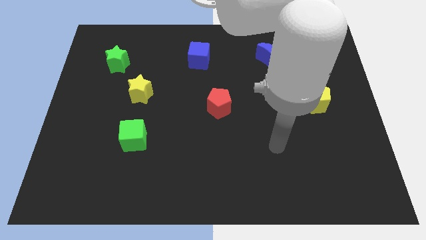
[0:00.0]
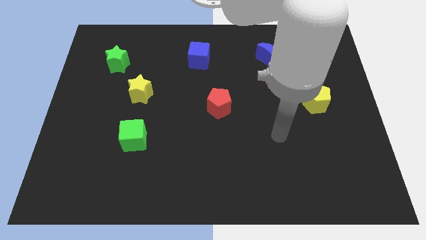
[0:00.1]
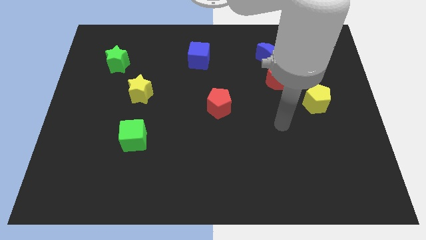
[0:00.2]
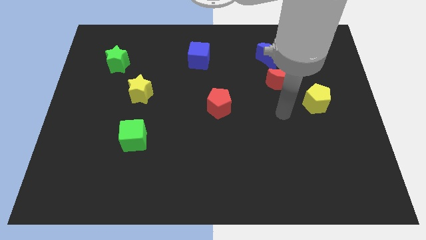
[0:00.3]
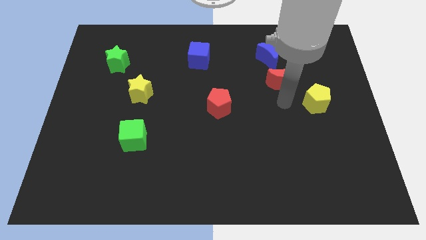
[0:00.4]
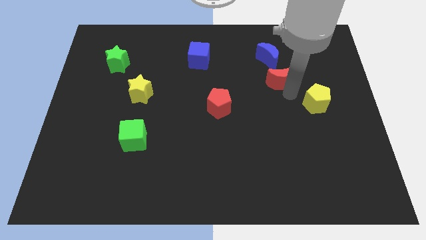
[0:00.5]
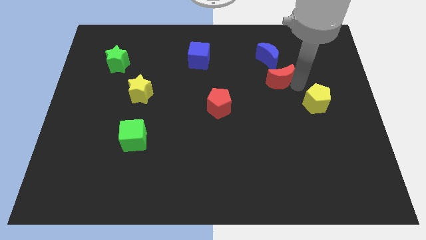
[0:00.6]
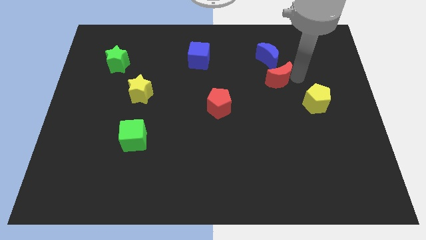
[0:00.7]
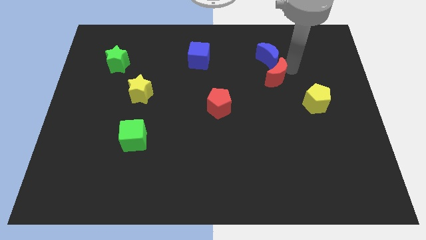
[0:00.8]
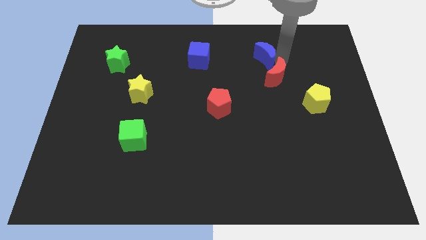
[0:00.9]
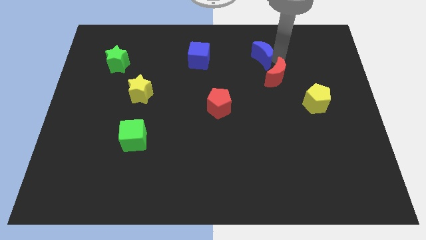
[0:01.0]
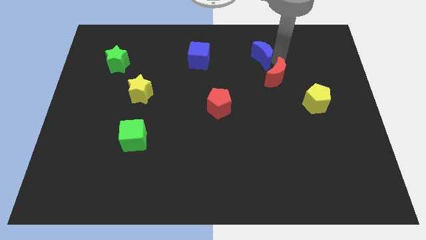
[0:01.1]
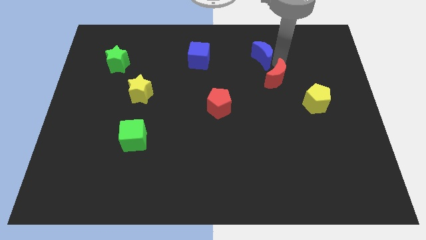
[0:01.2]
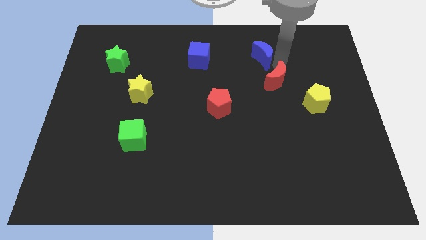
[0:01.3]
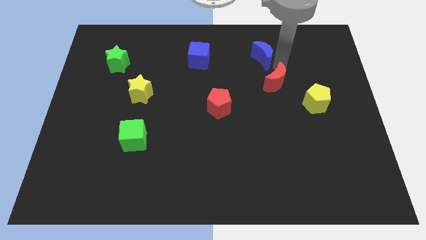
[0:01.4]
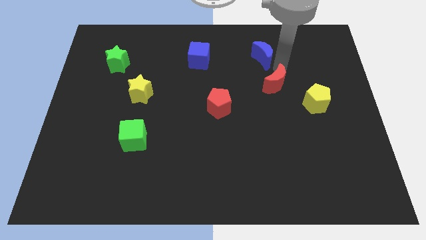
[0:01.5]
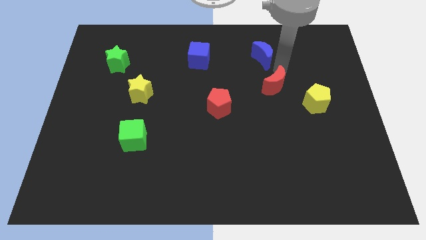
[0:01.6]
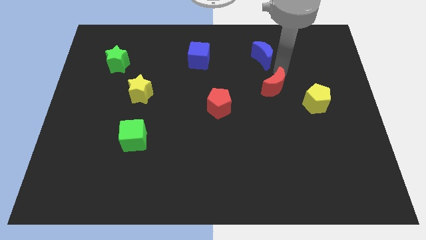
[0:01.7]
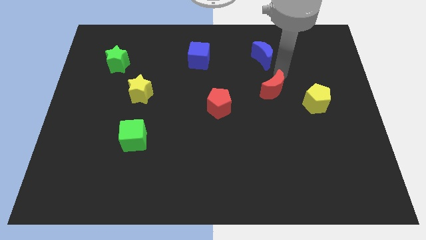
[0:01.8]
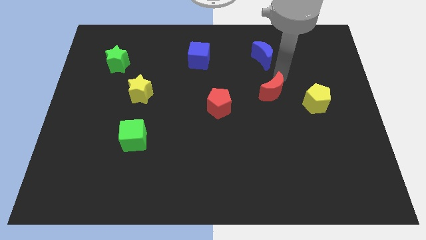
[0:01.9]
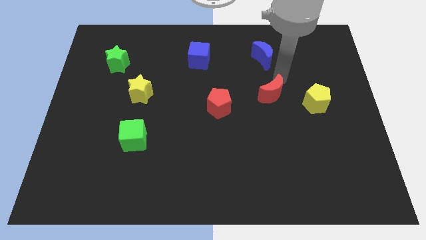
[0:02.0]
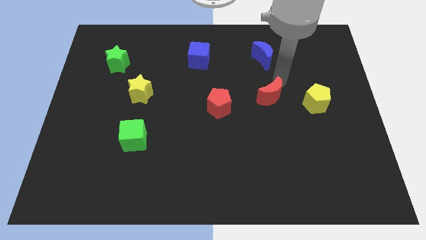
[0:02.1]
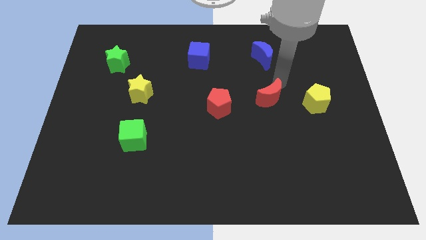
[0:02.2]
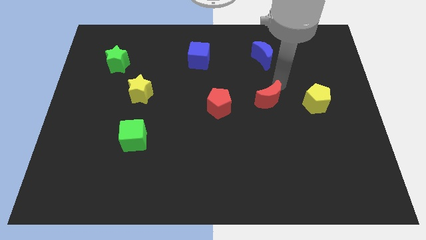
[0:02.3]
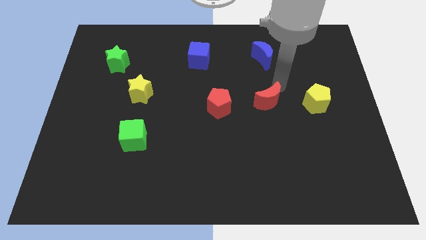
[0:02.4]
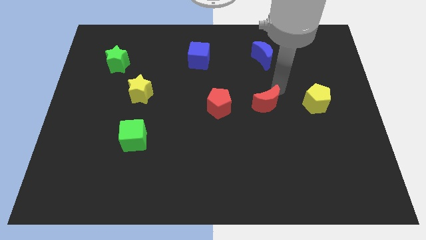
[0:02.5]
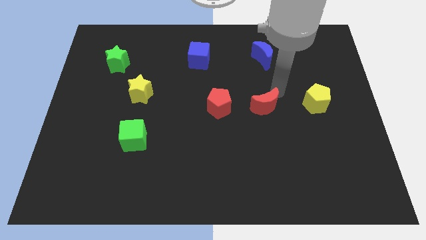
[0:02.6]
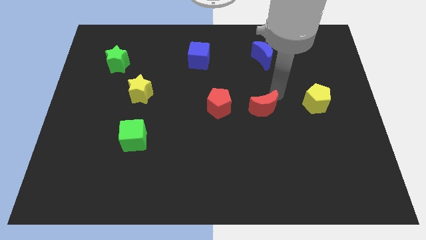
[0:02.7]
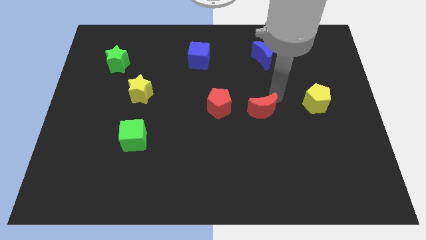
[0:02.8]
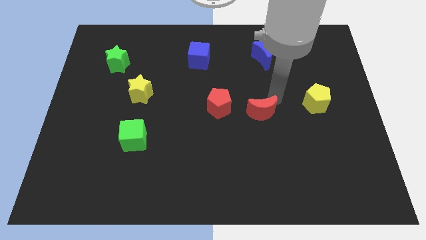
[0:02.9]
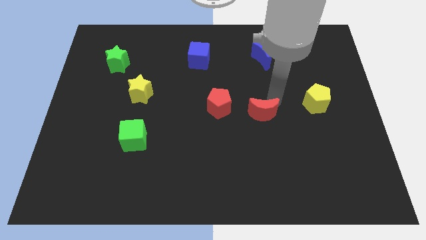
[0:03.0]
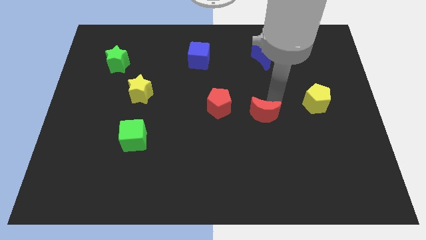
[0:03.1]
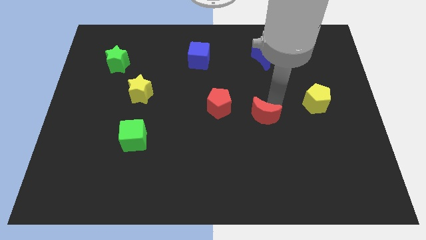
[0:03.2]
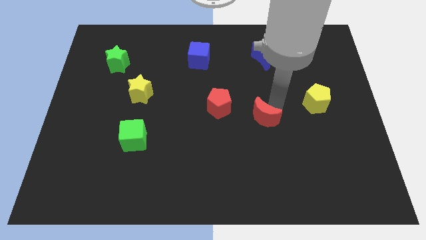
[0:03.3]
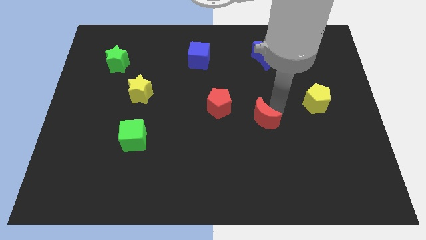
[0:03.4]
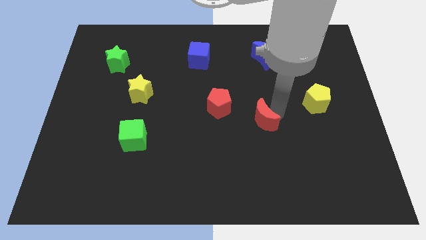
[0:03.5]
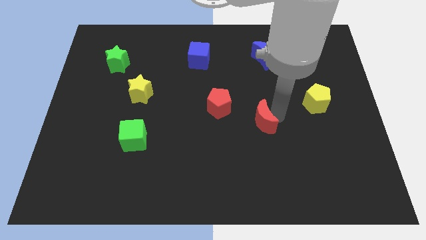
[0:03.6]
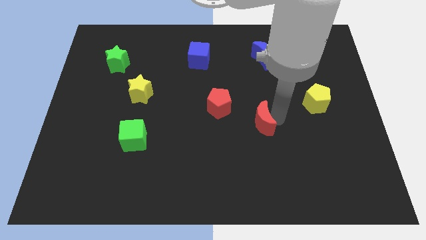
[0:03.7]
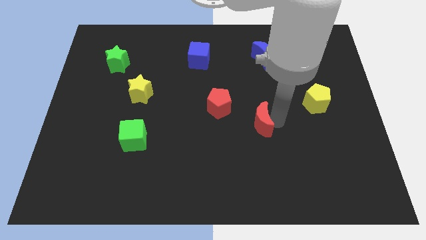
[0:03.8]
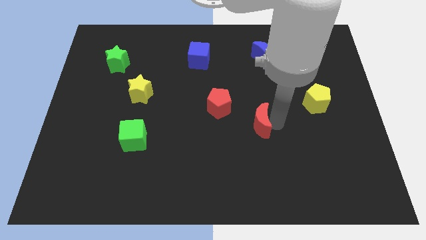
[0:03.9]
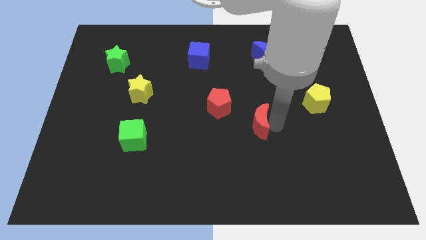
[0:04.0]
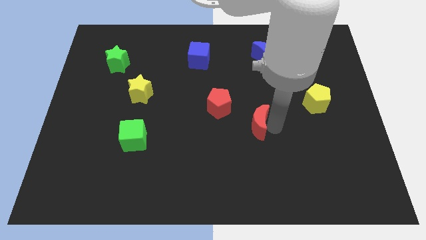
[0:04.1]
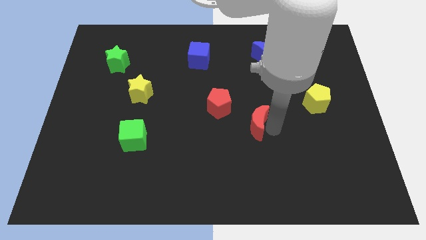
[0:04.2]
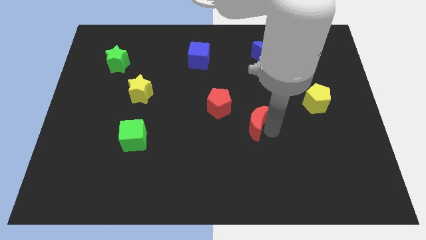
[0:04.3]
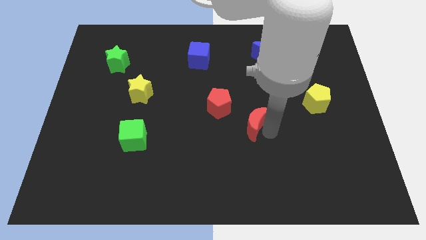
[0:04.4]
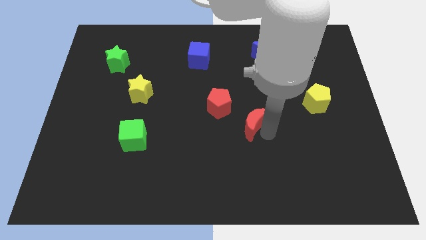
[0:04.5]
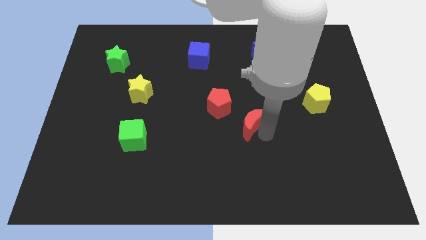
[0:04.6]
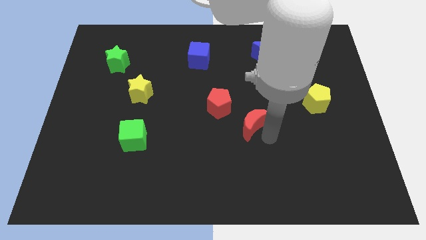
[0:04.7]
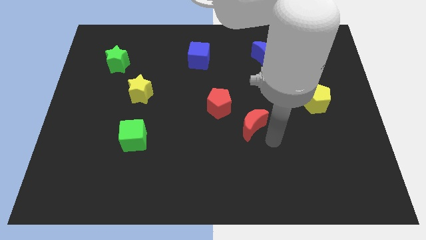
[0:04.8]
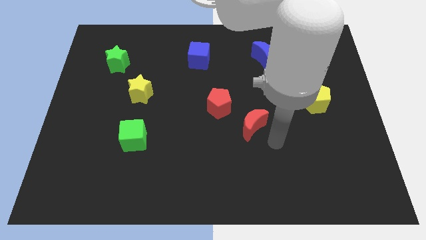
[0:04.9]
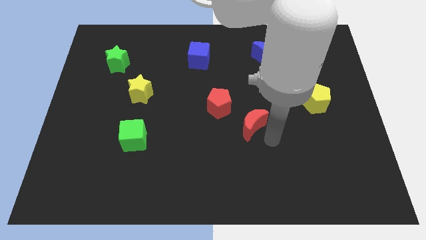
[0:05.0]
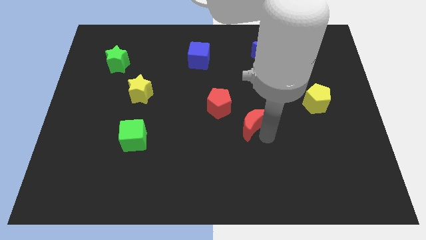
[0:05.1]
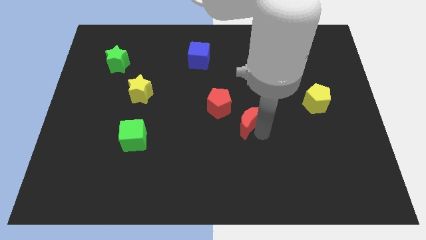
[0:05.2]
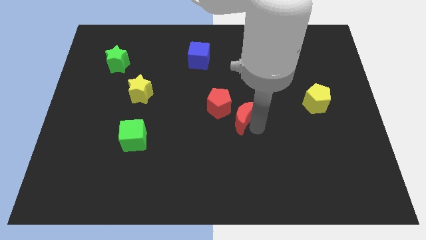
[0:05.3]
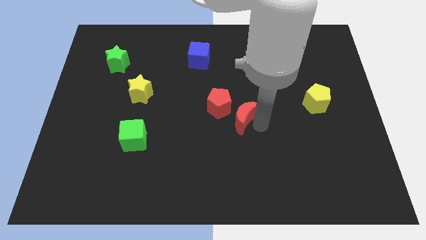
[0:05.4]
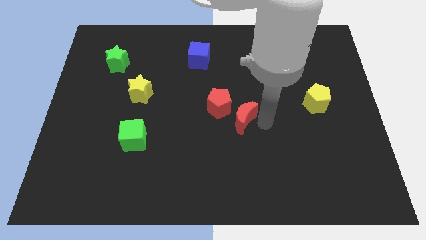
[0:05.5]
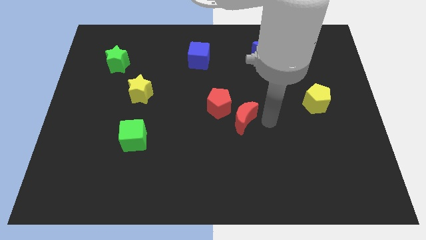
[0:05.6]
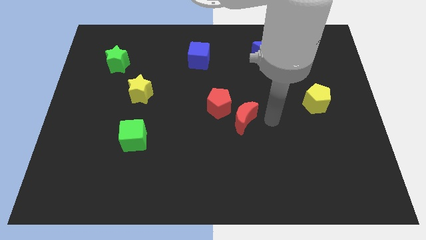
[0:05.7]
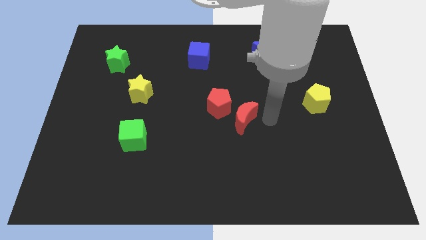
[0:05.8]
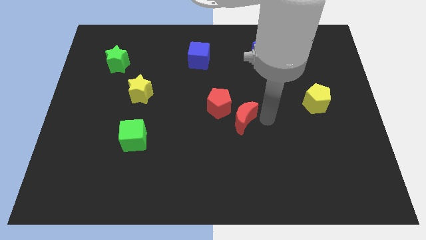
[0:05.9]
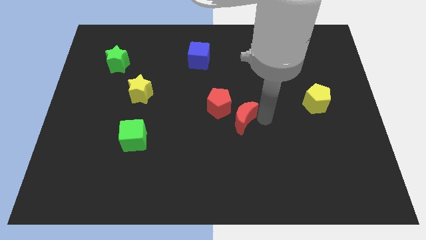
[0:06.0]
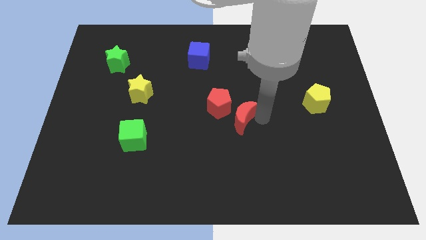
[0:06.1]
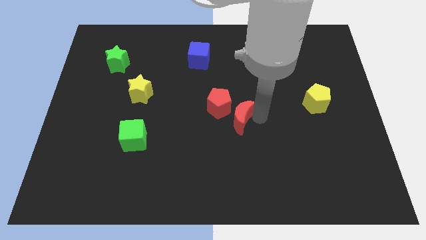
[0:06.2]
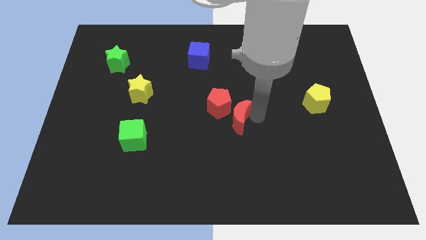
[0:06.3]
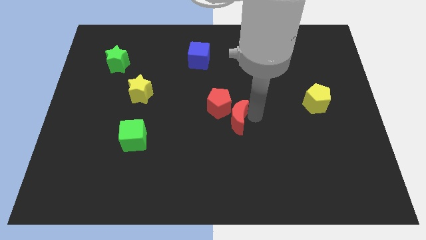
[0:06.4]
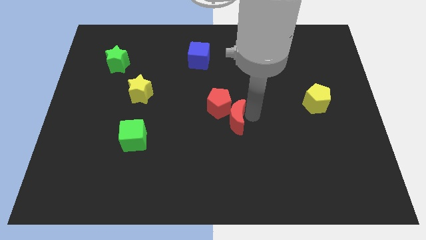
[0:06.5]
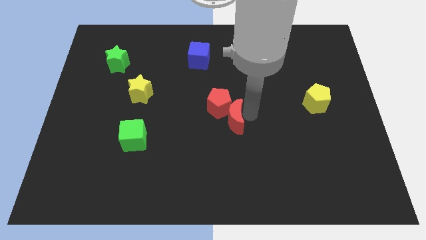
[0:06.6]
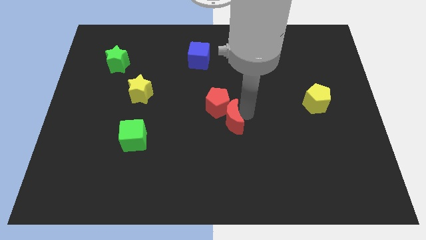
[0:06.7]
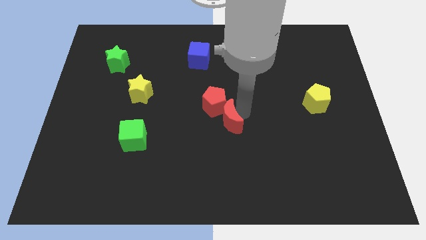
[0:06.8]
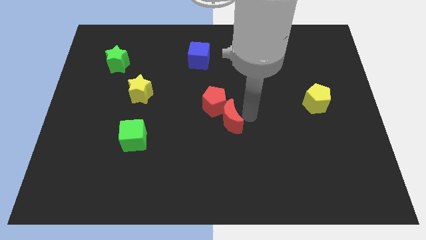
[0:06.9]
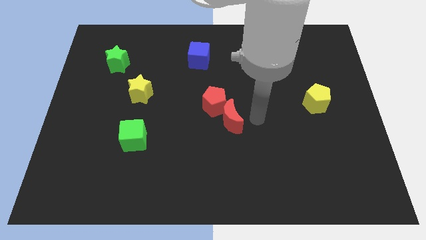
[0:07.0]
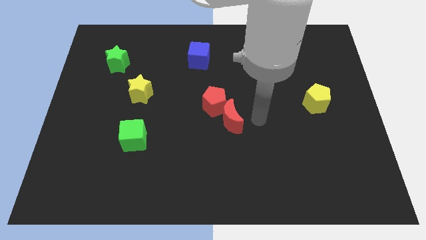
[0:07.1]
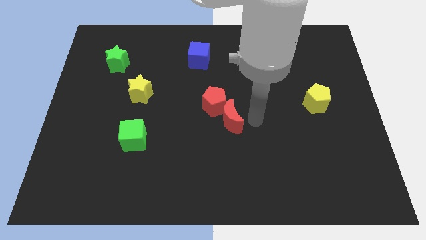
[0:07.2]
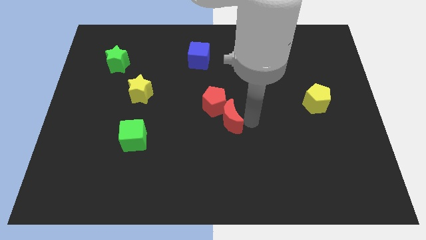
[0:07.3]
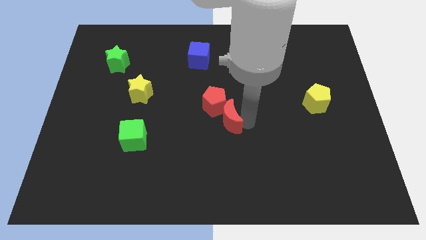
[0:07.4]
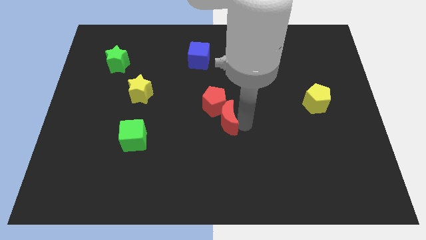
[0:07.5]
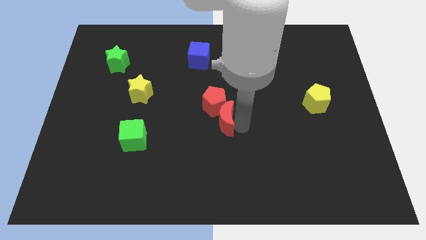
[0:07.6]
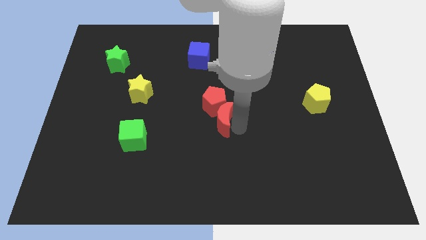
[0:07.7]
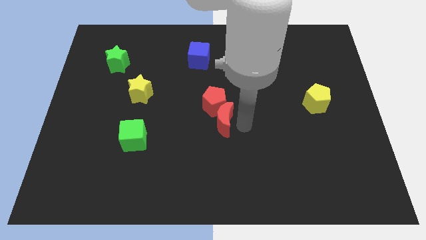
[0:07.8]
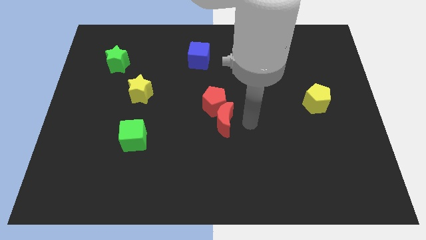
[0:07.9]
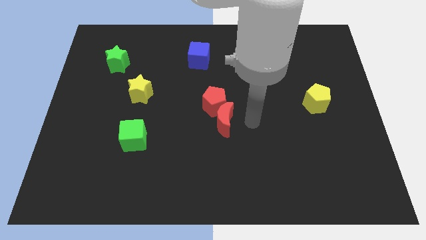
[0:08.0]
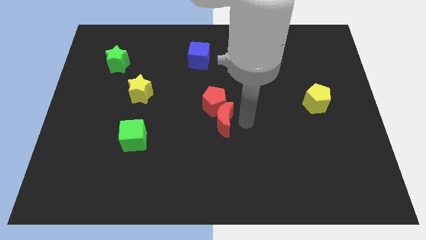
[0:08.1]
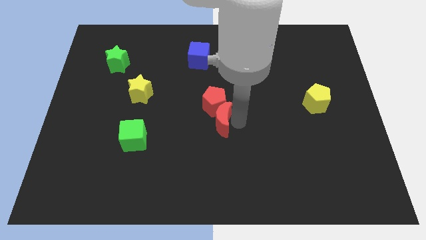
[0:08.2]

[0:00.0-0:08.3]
slide the red moon to the bottom left side of the red pentagon
